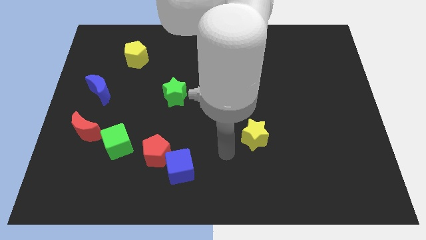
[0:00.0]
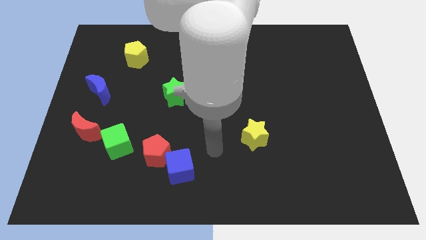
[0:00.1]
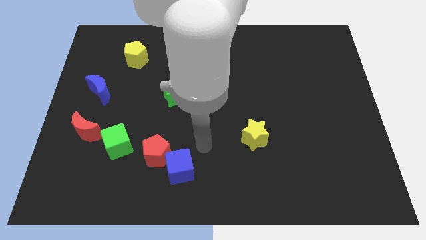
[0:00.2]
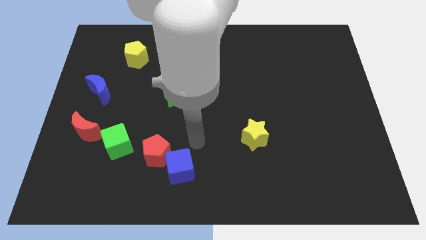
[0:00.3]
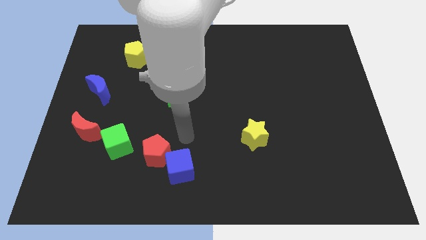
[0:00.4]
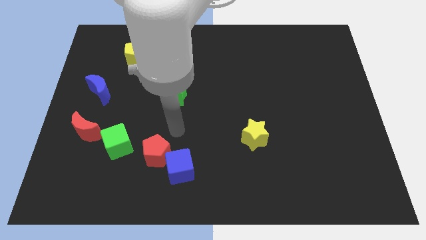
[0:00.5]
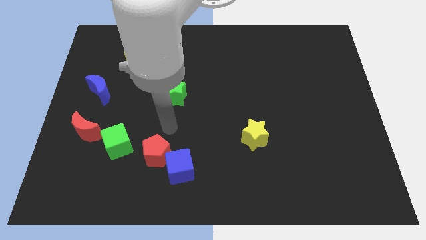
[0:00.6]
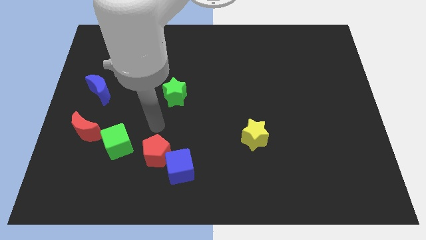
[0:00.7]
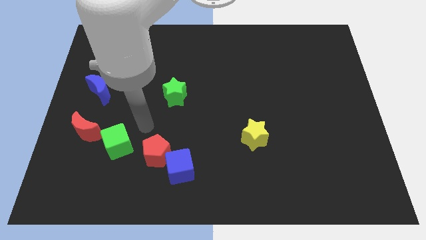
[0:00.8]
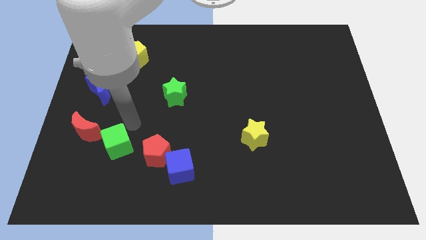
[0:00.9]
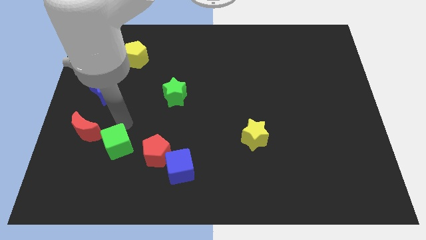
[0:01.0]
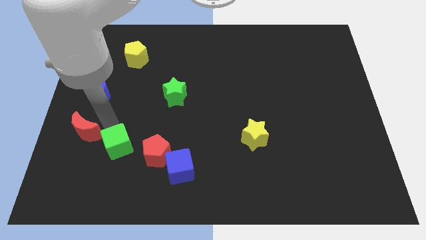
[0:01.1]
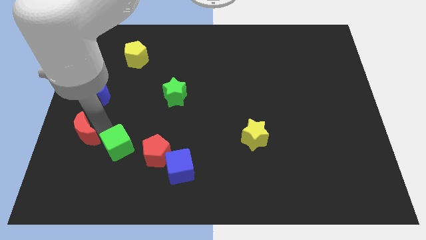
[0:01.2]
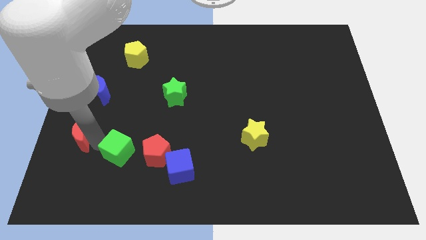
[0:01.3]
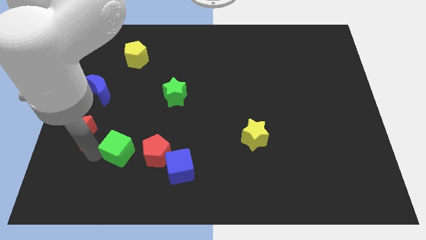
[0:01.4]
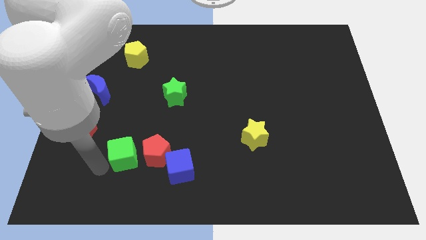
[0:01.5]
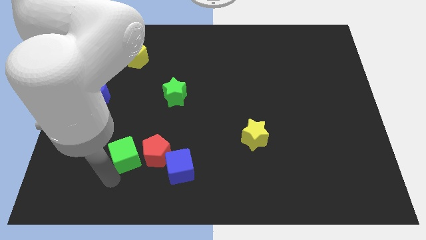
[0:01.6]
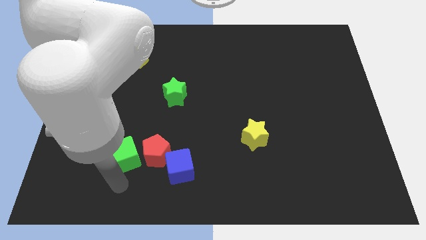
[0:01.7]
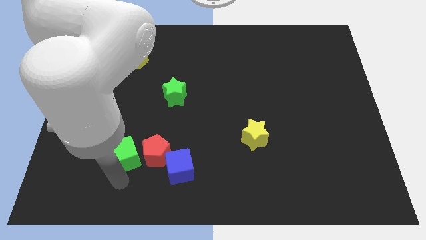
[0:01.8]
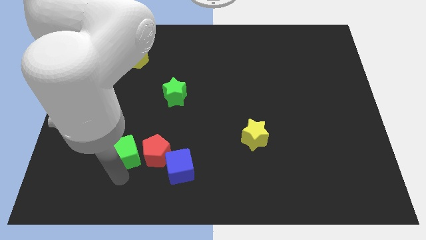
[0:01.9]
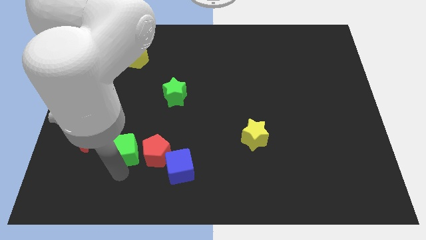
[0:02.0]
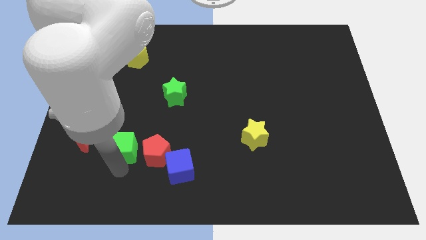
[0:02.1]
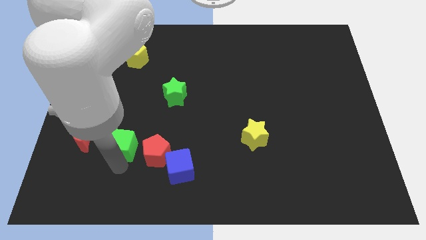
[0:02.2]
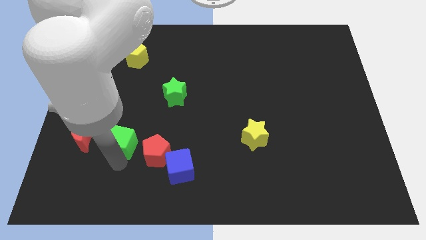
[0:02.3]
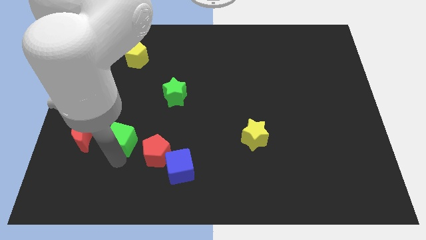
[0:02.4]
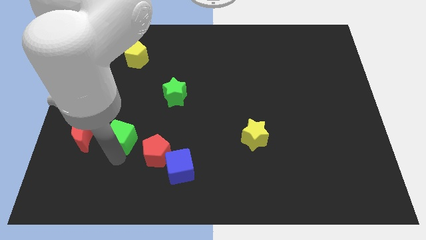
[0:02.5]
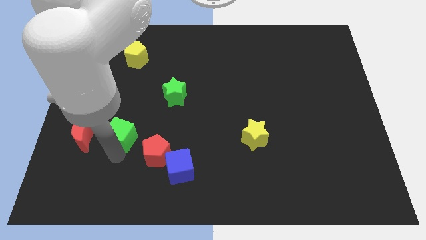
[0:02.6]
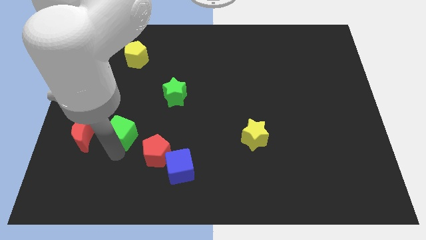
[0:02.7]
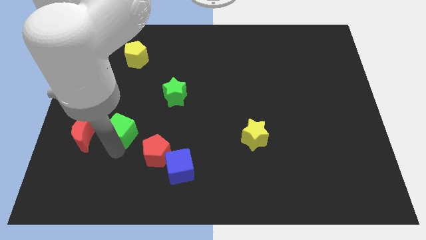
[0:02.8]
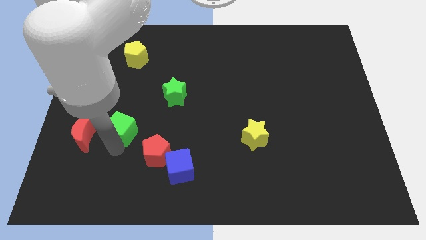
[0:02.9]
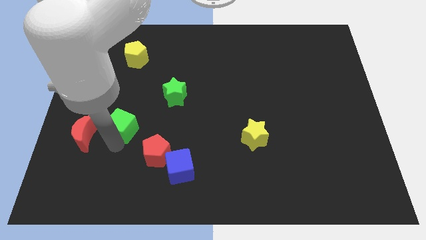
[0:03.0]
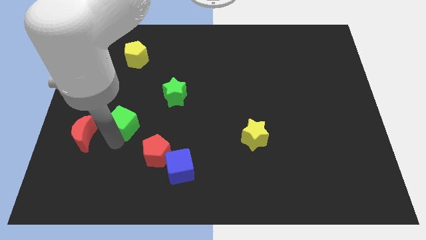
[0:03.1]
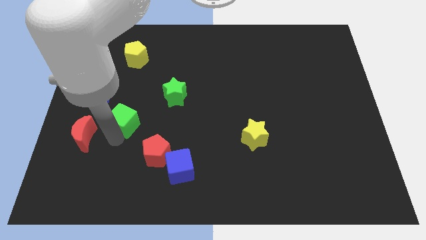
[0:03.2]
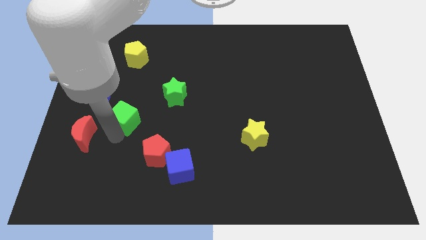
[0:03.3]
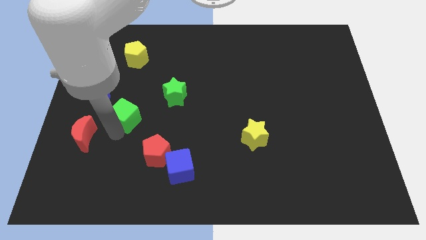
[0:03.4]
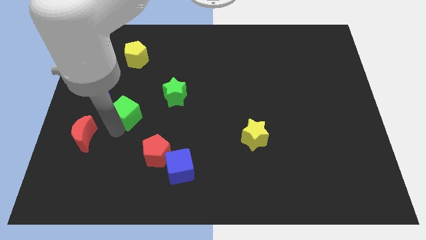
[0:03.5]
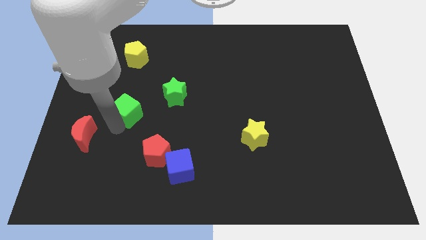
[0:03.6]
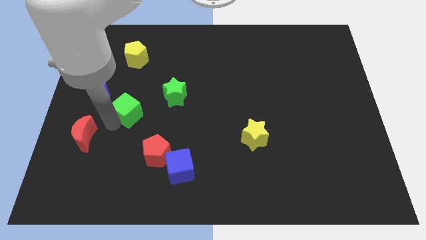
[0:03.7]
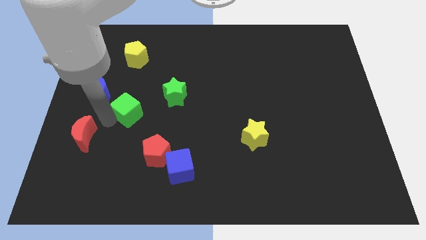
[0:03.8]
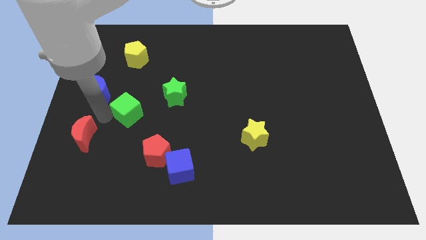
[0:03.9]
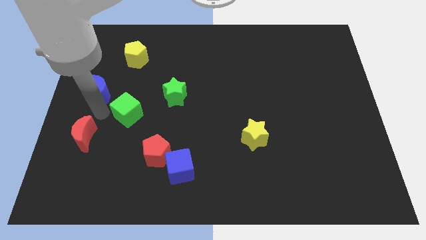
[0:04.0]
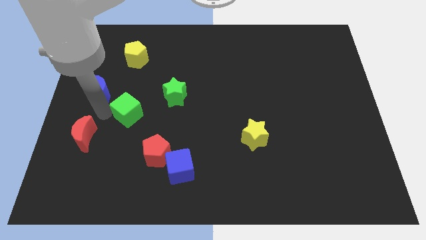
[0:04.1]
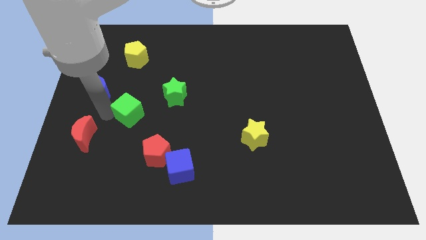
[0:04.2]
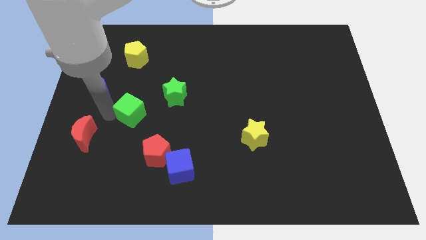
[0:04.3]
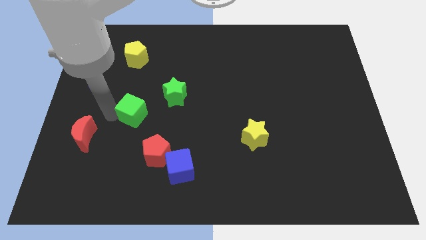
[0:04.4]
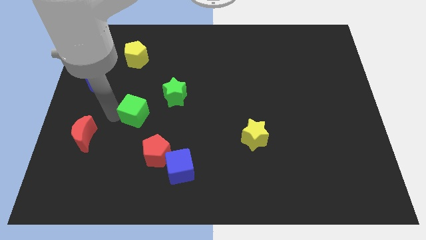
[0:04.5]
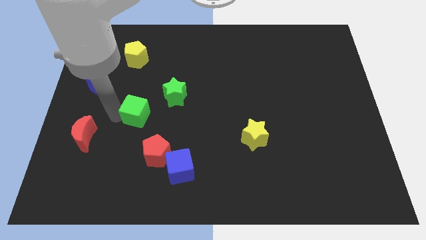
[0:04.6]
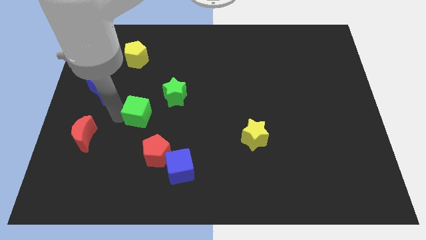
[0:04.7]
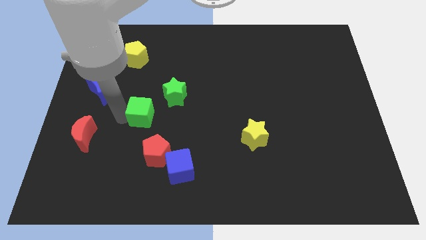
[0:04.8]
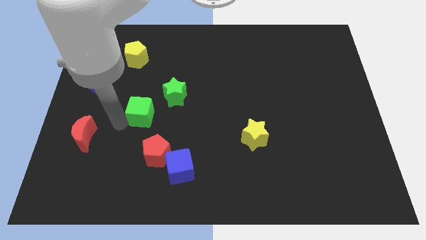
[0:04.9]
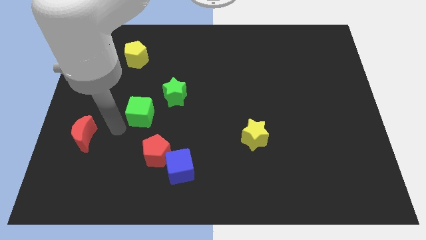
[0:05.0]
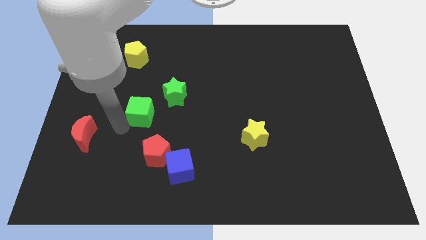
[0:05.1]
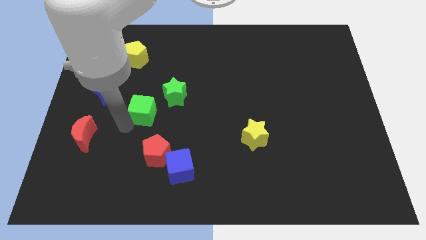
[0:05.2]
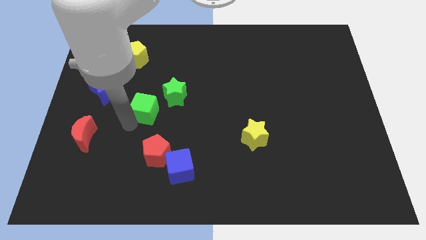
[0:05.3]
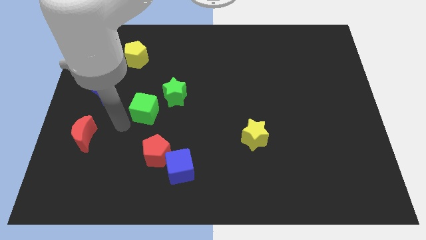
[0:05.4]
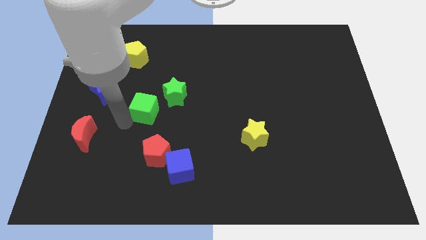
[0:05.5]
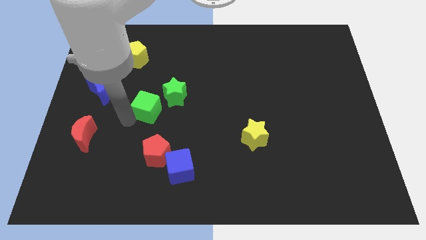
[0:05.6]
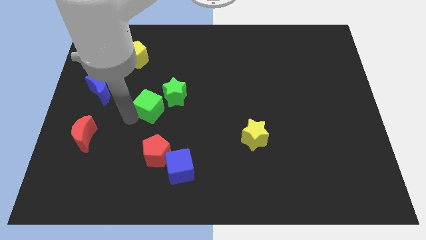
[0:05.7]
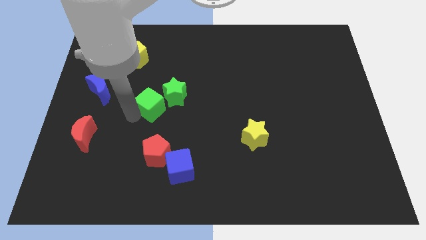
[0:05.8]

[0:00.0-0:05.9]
put the green cube close to the green star

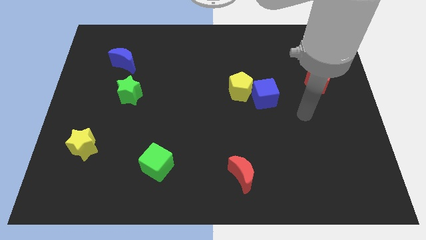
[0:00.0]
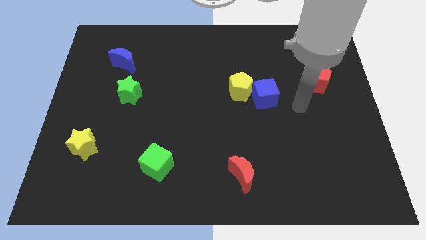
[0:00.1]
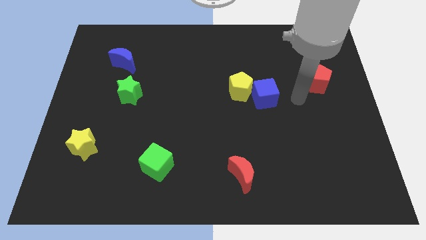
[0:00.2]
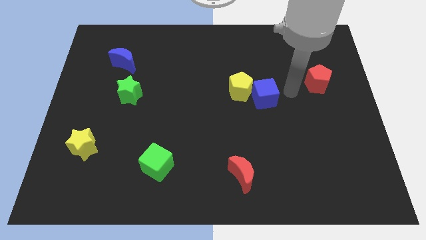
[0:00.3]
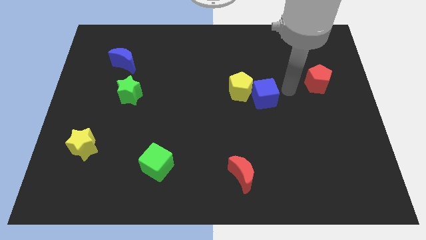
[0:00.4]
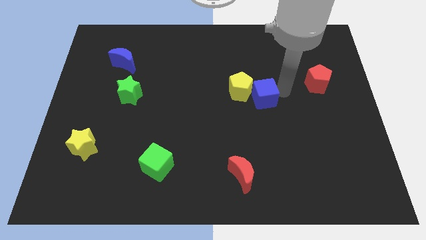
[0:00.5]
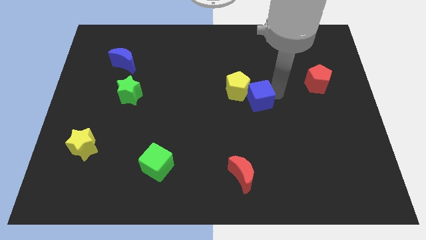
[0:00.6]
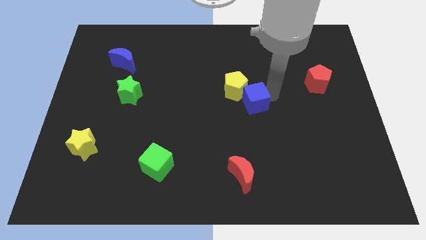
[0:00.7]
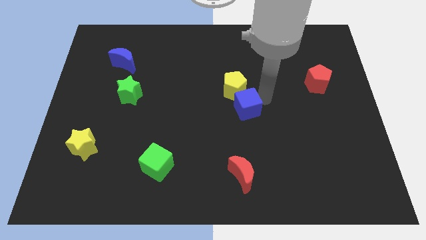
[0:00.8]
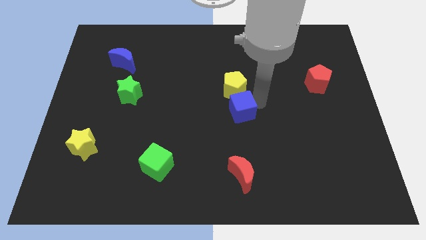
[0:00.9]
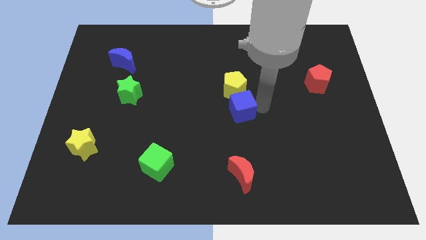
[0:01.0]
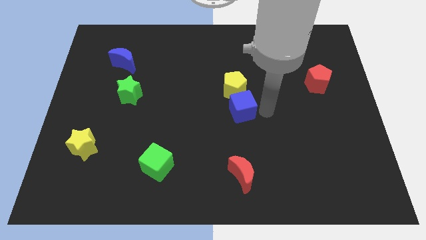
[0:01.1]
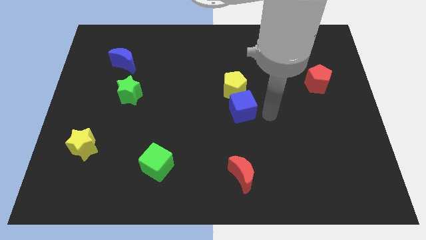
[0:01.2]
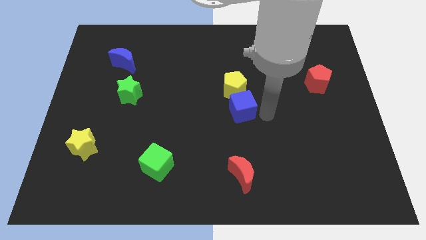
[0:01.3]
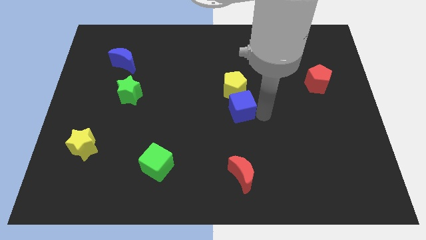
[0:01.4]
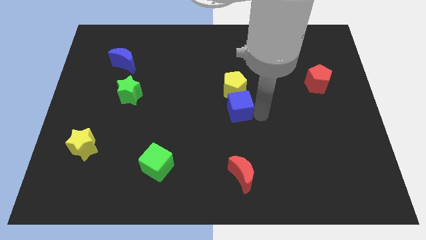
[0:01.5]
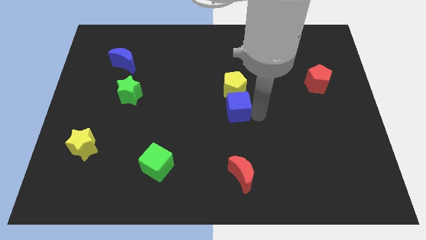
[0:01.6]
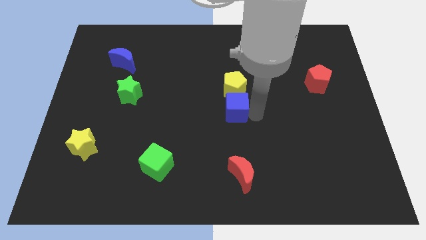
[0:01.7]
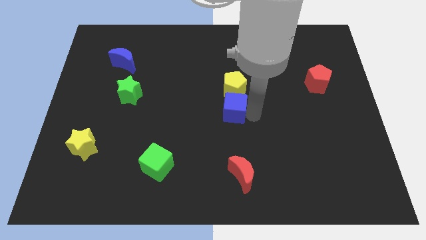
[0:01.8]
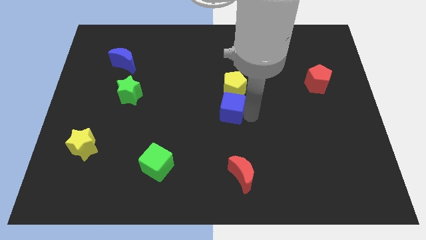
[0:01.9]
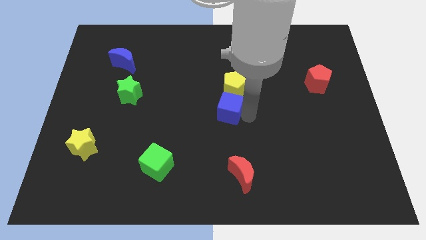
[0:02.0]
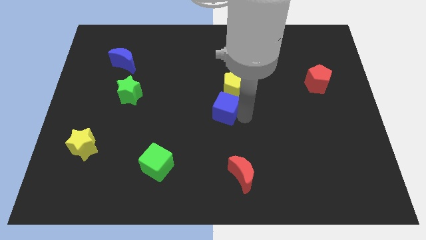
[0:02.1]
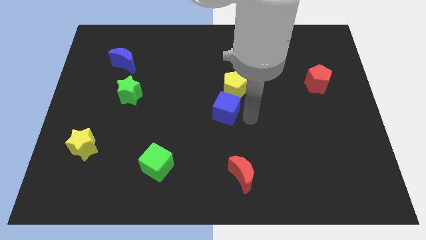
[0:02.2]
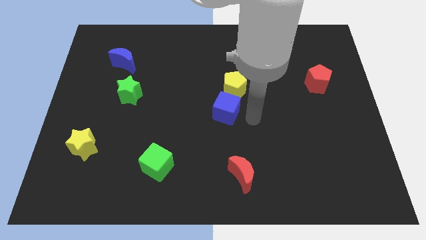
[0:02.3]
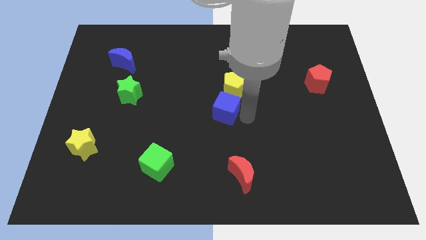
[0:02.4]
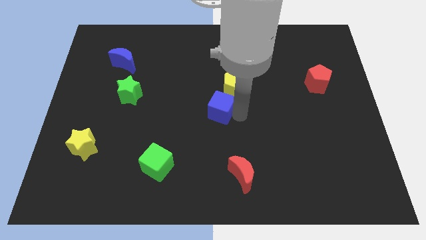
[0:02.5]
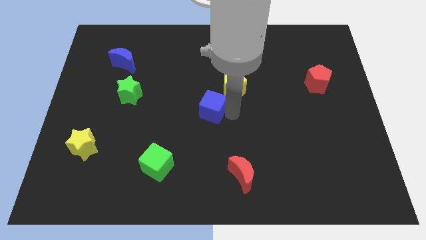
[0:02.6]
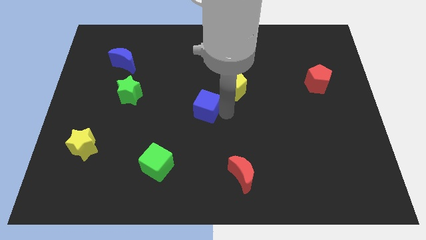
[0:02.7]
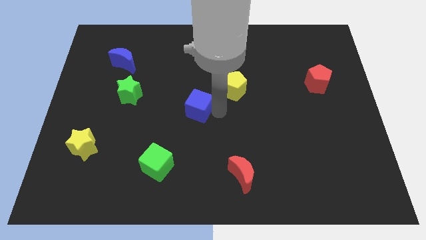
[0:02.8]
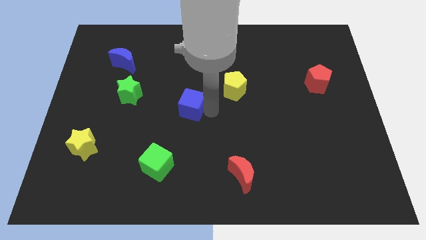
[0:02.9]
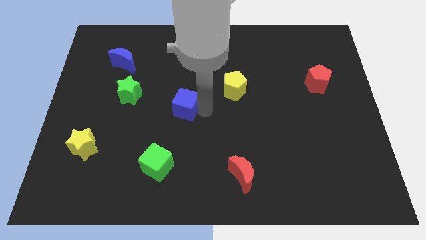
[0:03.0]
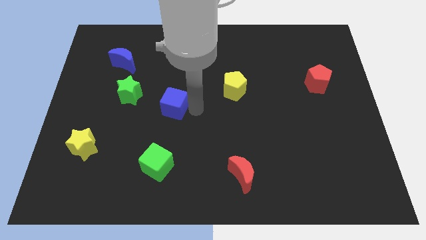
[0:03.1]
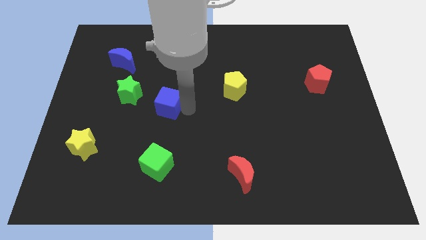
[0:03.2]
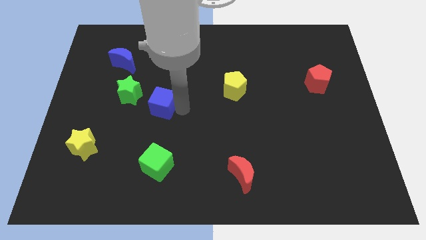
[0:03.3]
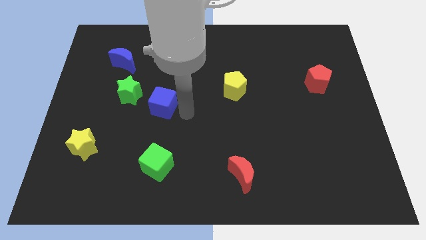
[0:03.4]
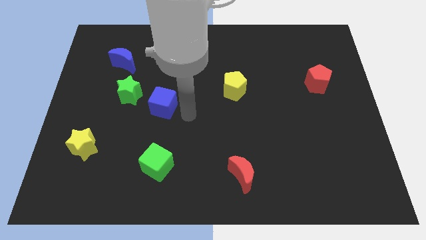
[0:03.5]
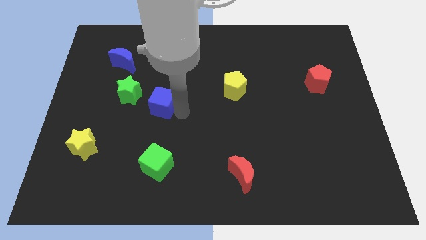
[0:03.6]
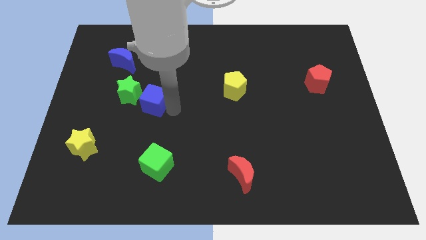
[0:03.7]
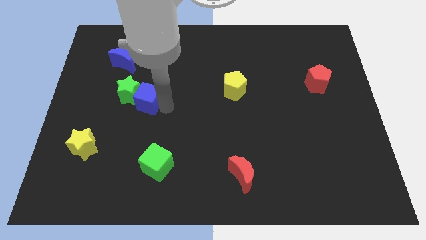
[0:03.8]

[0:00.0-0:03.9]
put the blue cube to the green star
